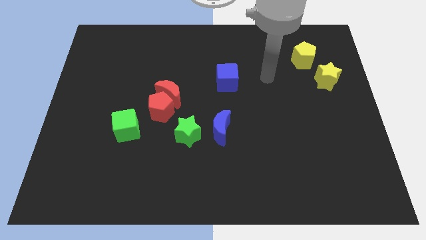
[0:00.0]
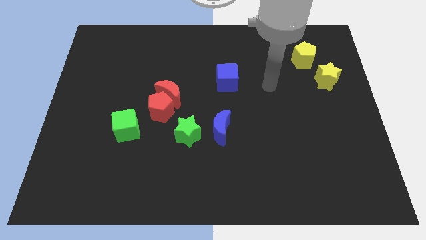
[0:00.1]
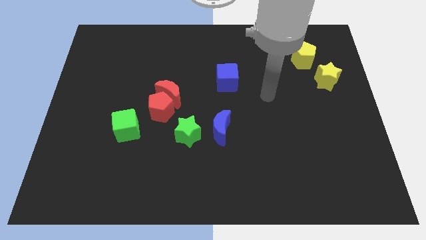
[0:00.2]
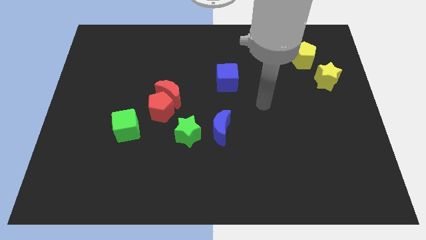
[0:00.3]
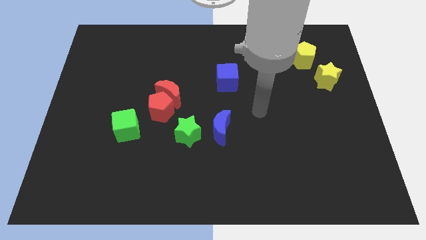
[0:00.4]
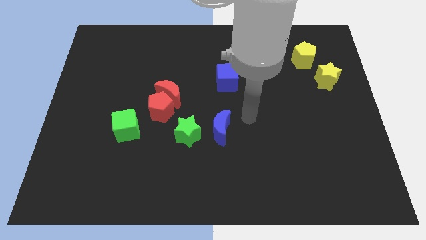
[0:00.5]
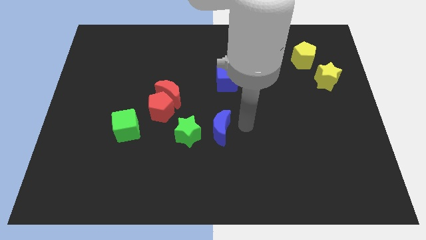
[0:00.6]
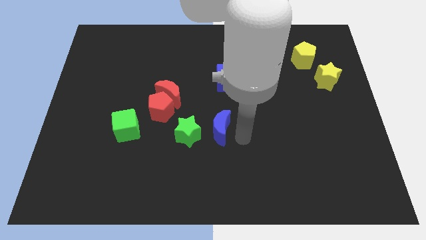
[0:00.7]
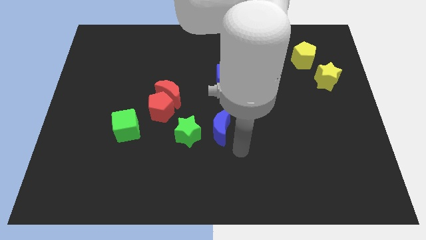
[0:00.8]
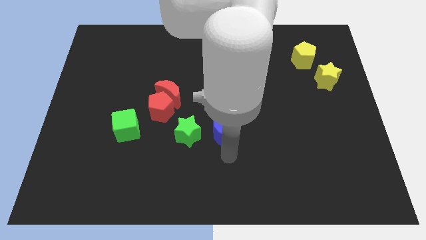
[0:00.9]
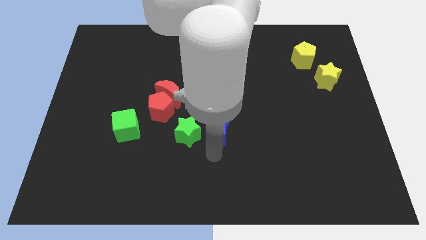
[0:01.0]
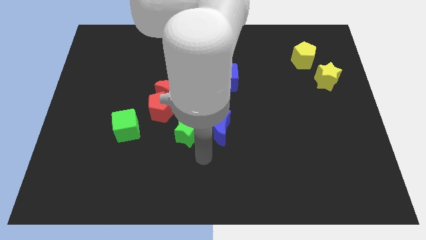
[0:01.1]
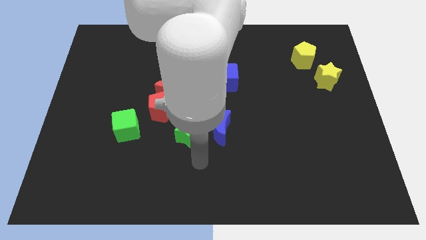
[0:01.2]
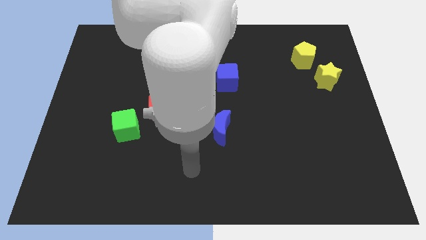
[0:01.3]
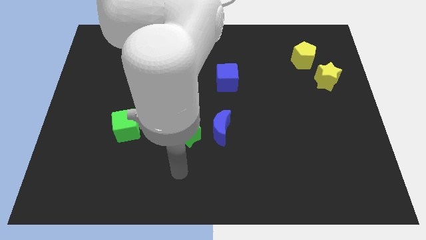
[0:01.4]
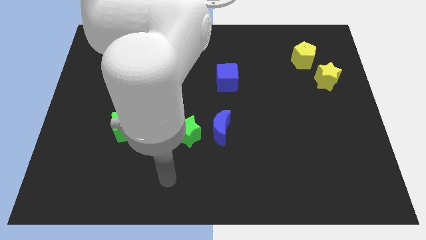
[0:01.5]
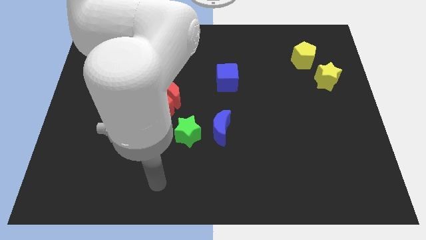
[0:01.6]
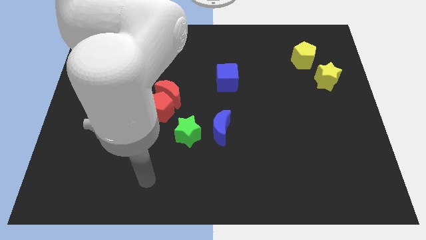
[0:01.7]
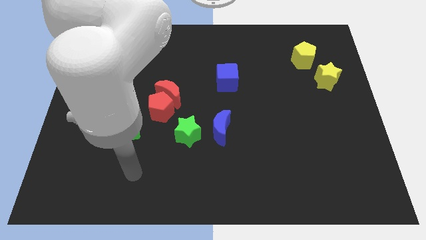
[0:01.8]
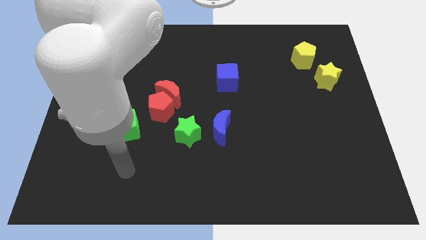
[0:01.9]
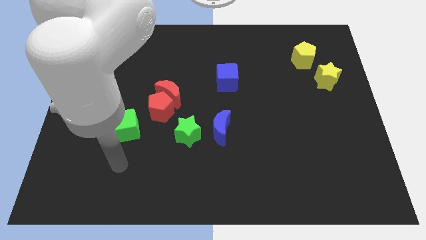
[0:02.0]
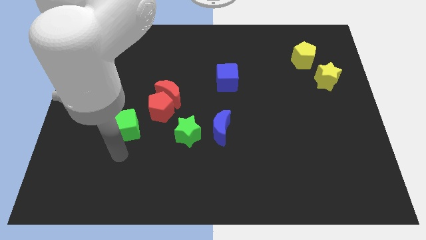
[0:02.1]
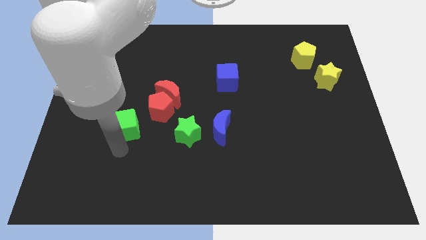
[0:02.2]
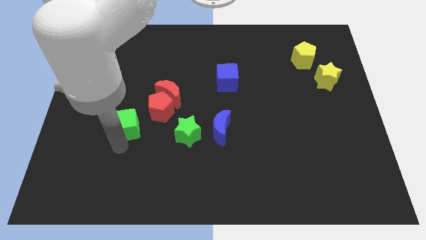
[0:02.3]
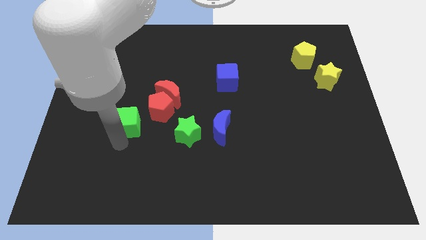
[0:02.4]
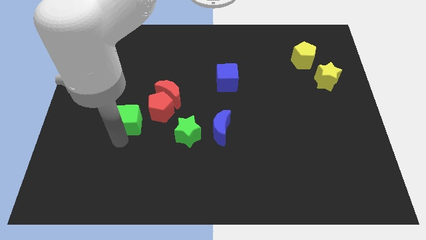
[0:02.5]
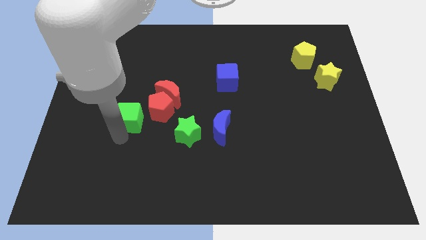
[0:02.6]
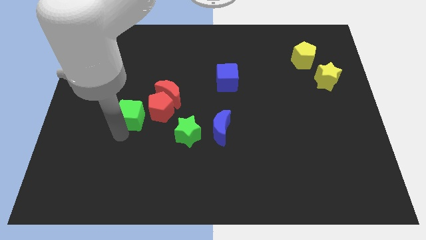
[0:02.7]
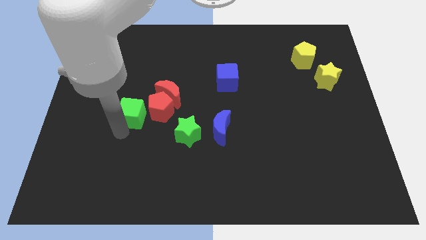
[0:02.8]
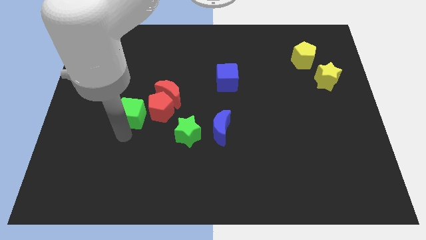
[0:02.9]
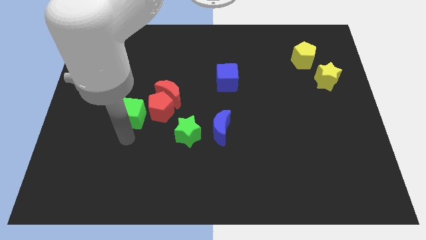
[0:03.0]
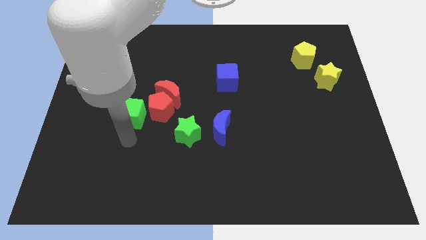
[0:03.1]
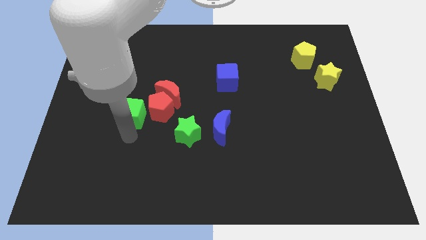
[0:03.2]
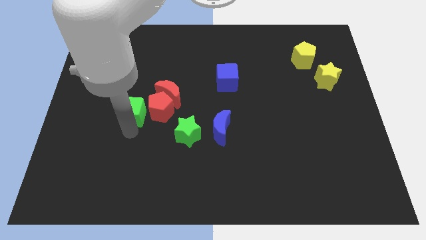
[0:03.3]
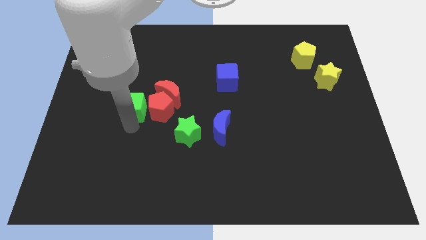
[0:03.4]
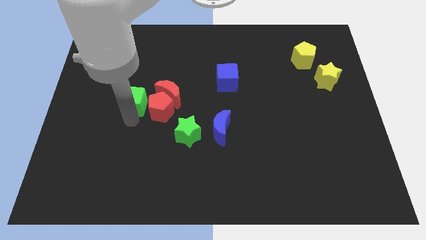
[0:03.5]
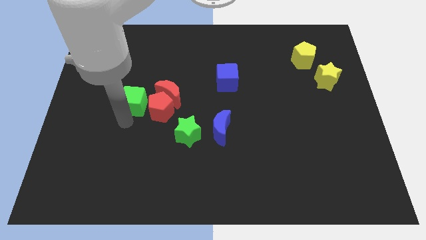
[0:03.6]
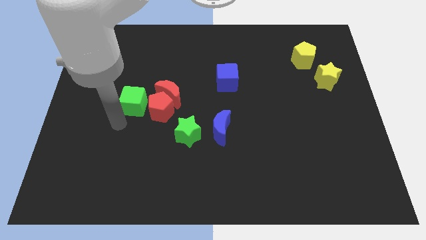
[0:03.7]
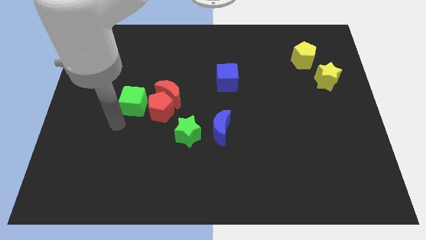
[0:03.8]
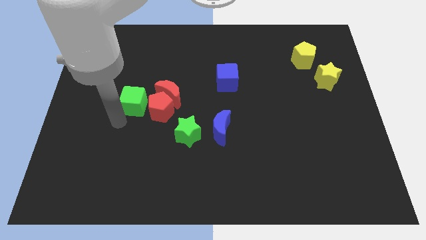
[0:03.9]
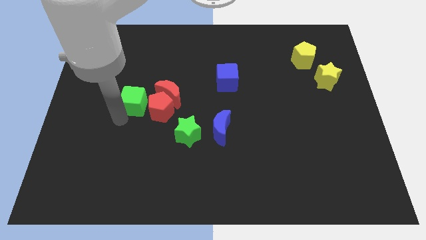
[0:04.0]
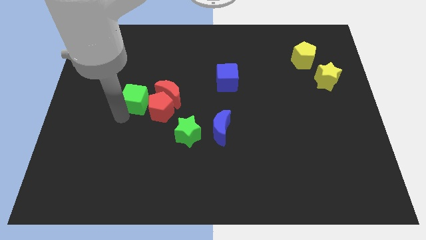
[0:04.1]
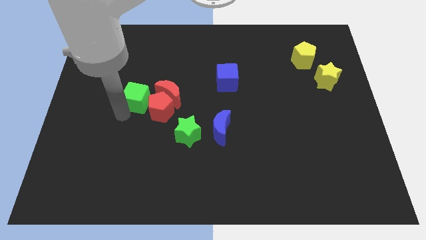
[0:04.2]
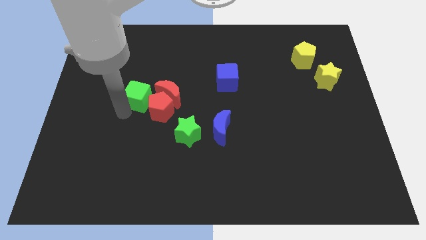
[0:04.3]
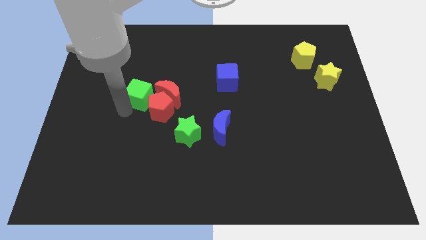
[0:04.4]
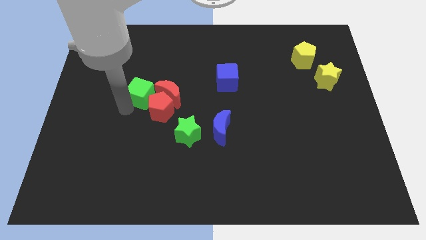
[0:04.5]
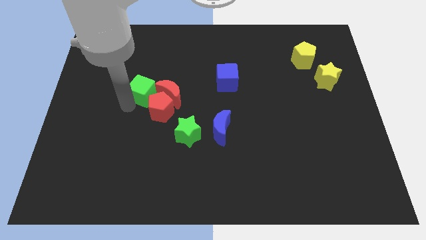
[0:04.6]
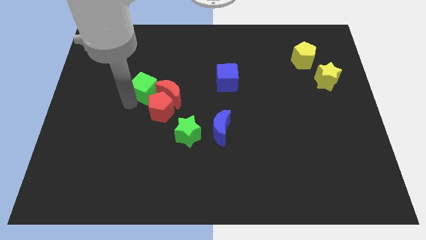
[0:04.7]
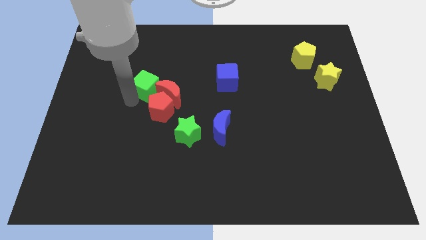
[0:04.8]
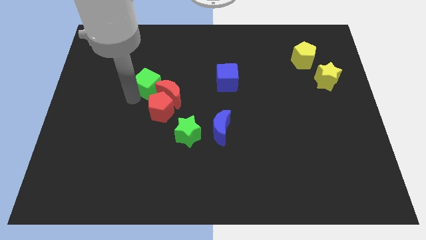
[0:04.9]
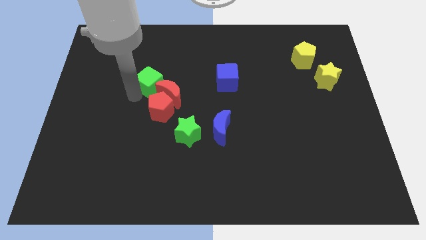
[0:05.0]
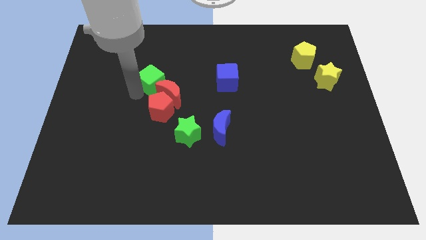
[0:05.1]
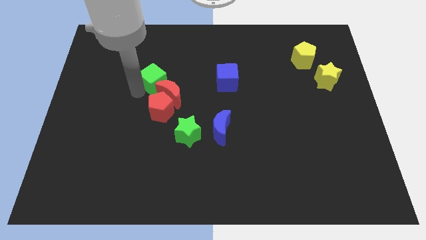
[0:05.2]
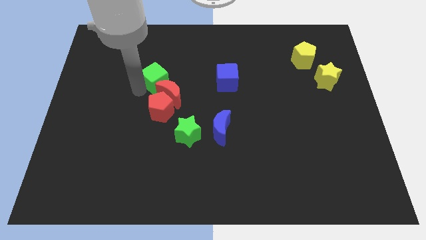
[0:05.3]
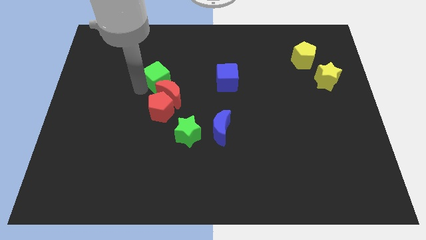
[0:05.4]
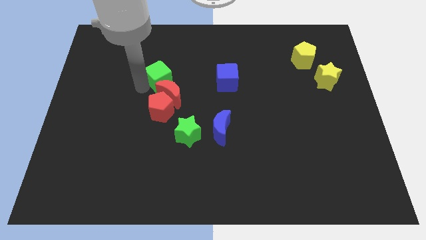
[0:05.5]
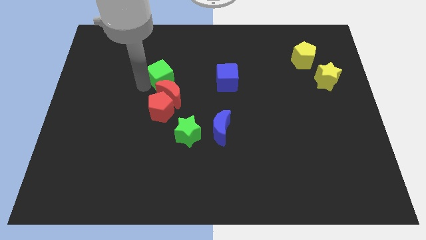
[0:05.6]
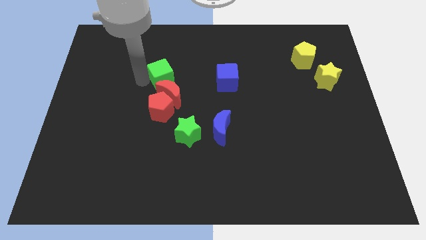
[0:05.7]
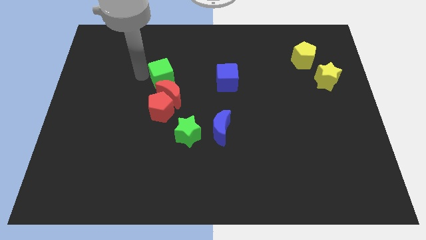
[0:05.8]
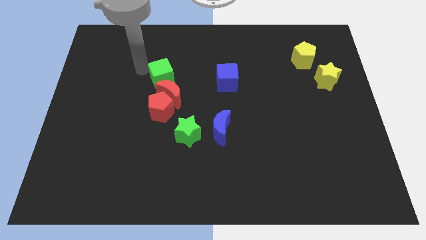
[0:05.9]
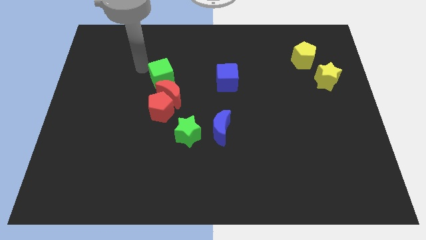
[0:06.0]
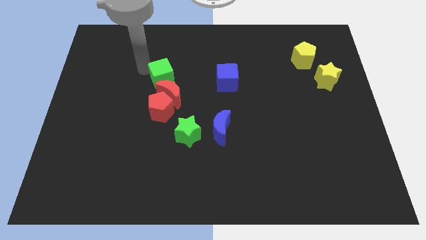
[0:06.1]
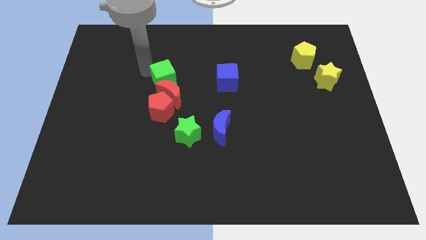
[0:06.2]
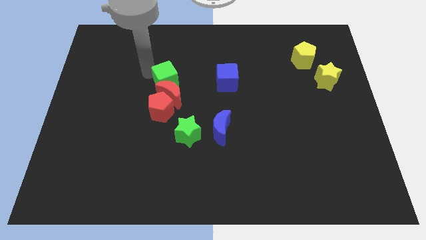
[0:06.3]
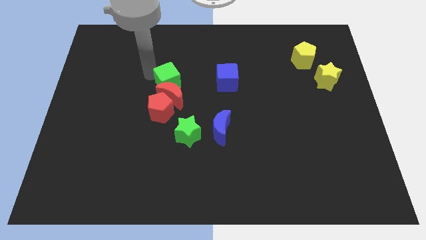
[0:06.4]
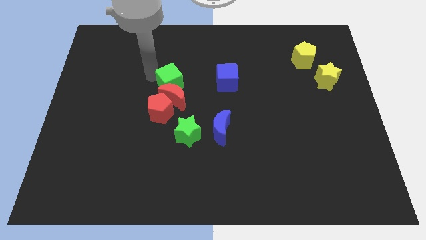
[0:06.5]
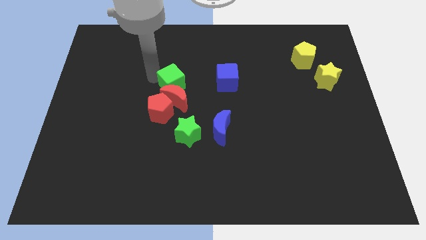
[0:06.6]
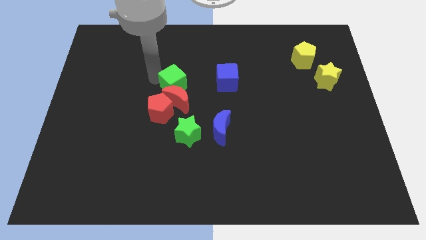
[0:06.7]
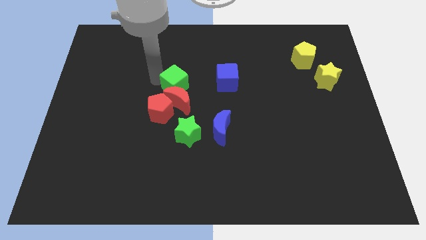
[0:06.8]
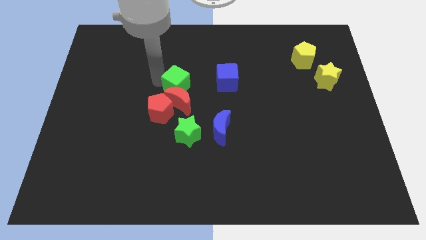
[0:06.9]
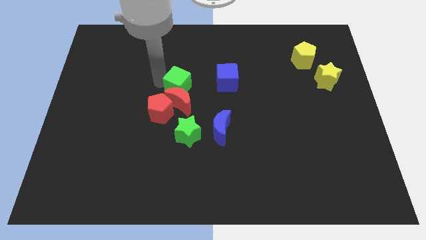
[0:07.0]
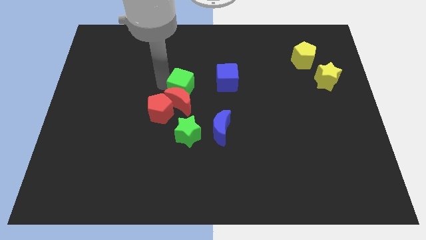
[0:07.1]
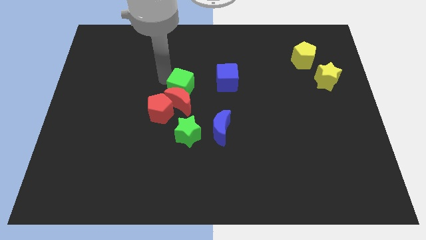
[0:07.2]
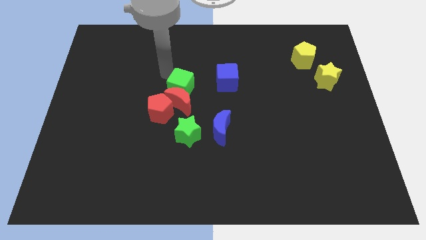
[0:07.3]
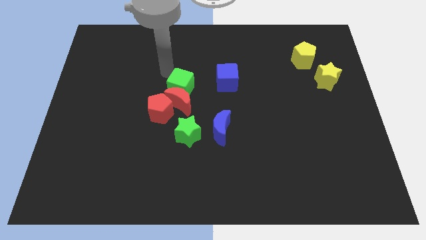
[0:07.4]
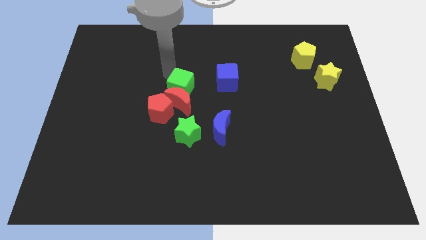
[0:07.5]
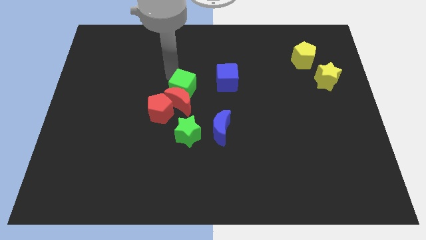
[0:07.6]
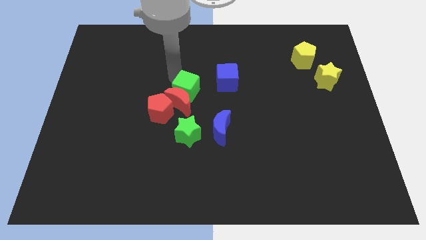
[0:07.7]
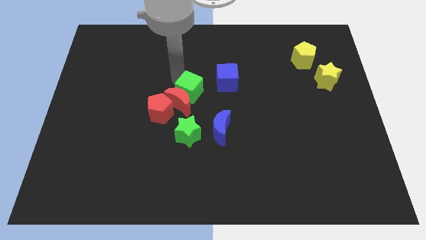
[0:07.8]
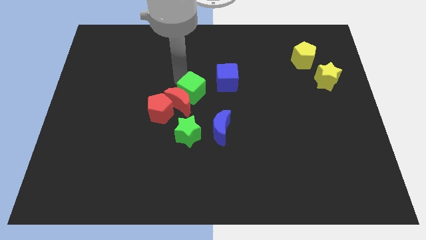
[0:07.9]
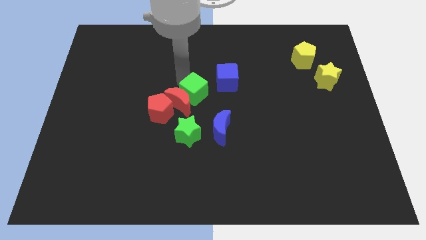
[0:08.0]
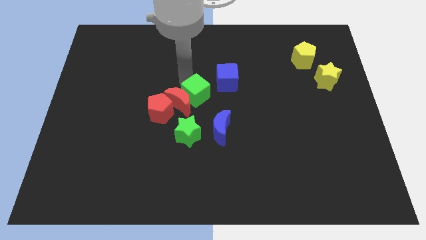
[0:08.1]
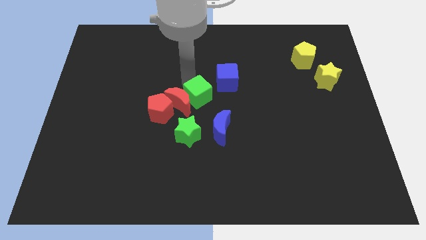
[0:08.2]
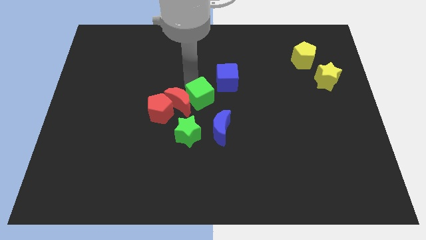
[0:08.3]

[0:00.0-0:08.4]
push the green cube to the right side of the red pentagon
